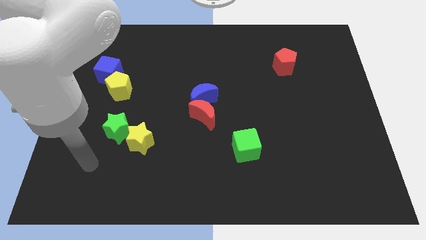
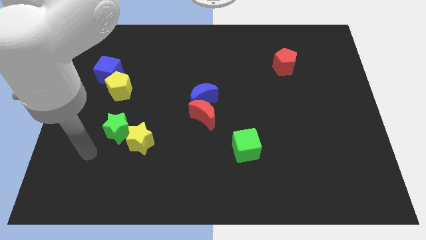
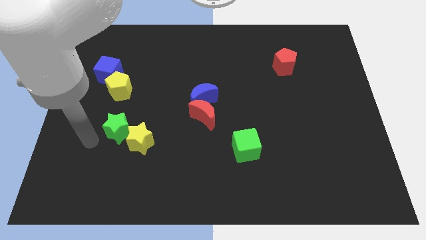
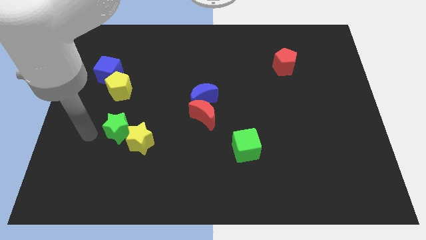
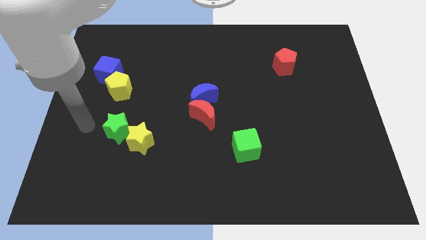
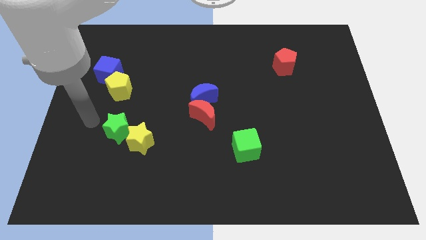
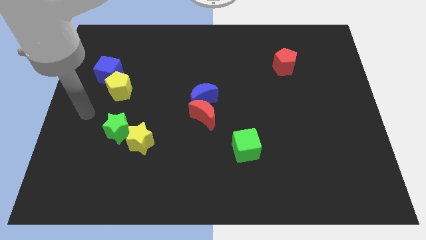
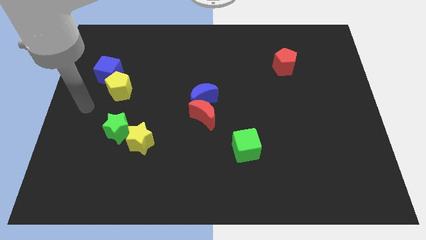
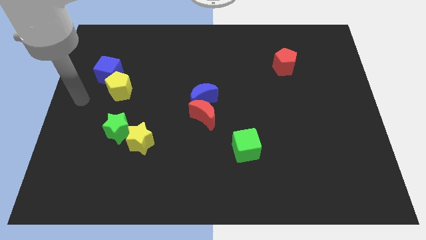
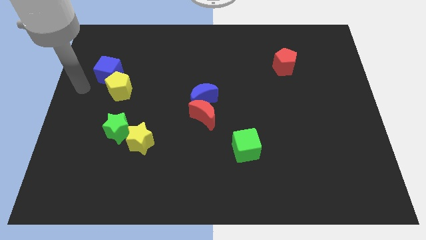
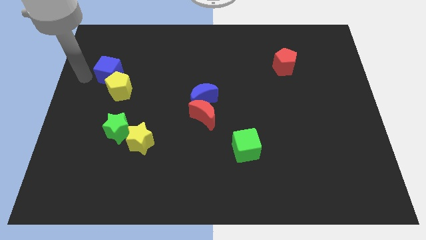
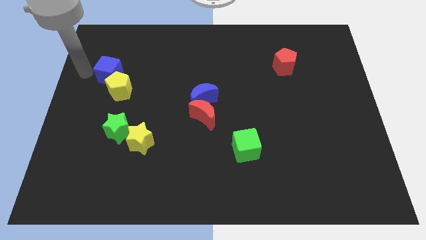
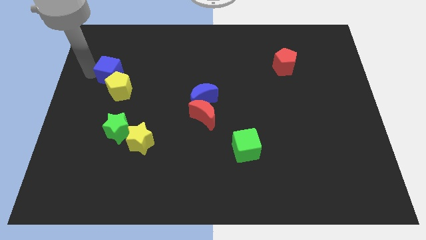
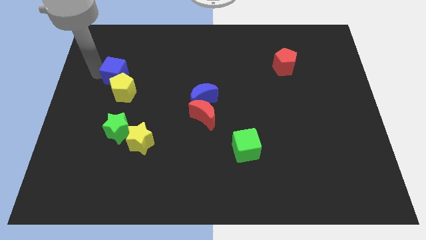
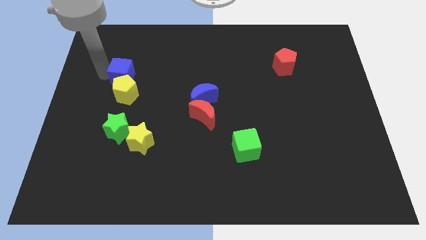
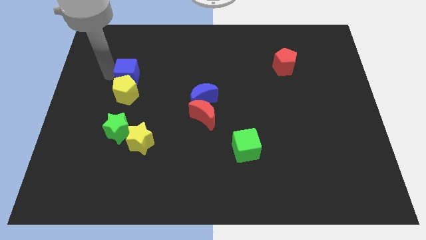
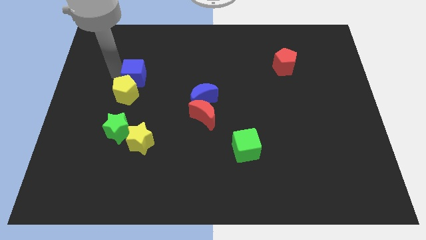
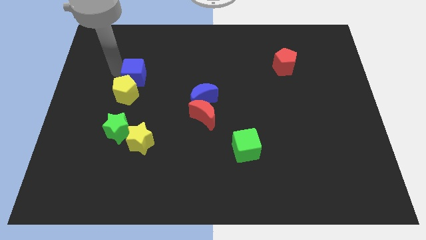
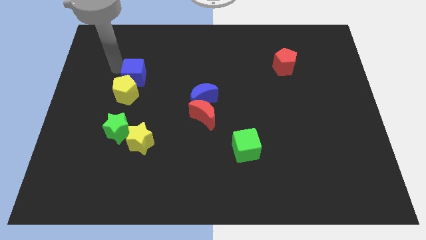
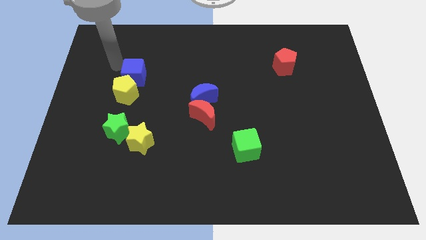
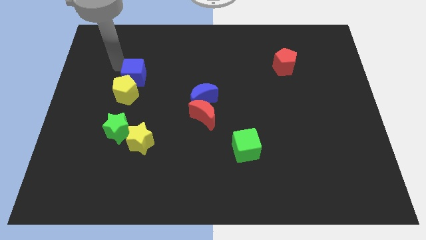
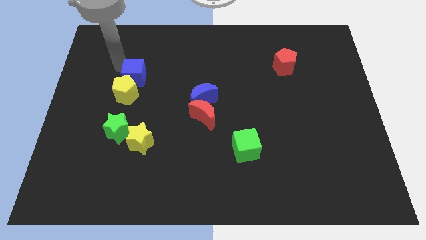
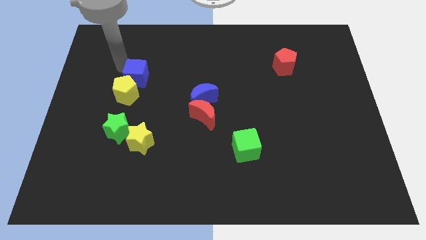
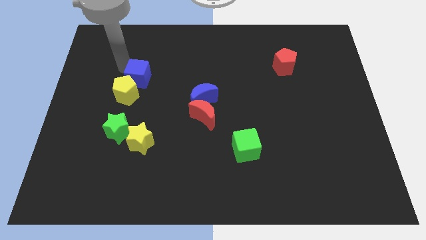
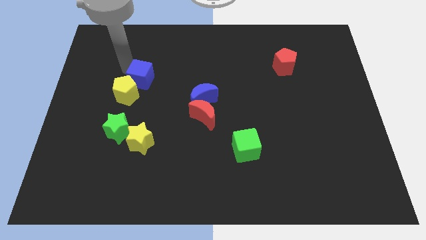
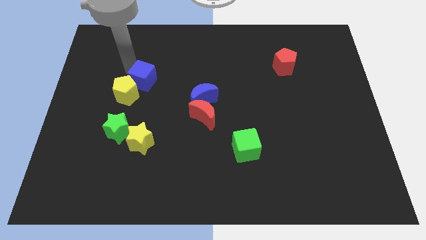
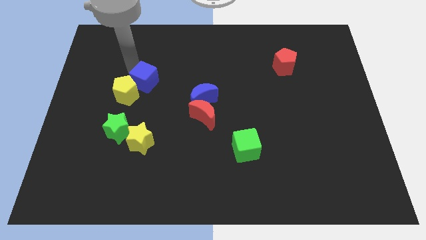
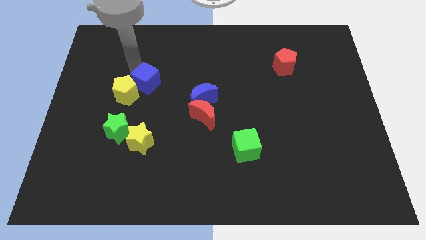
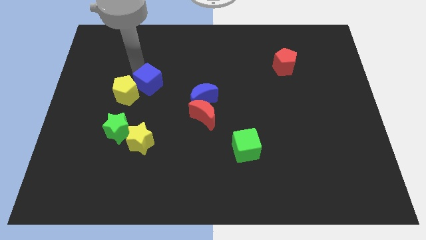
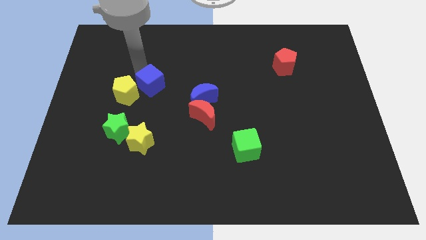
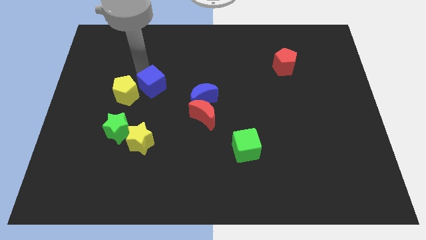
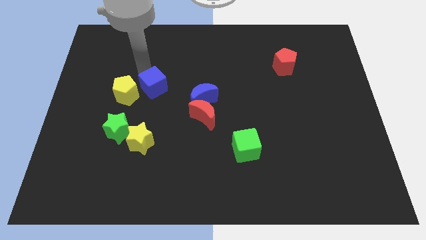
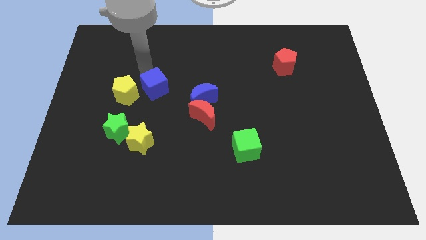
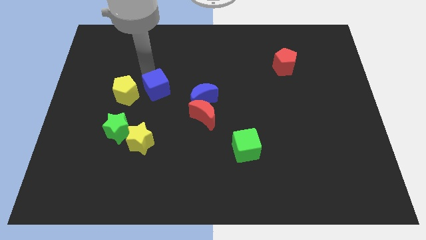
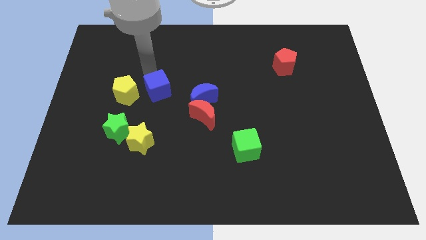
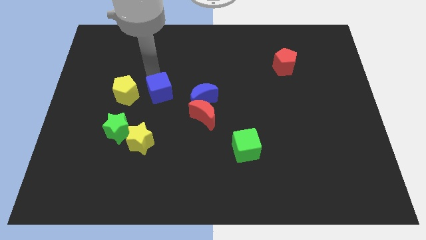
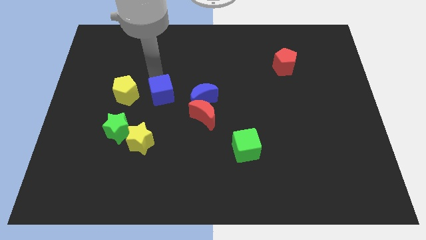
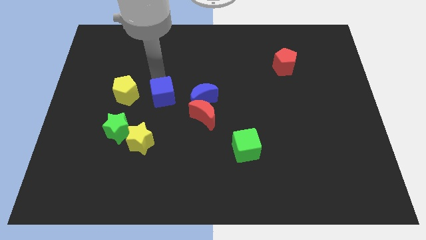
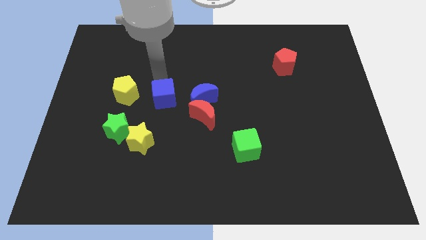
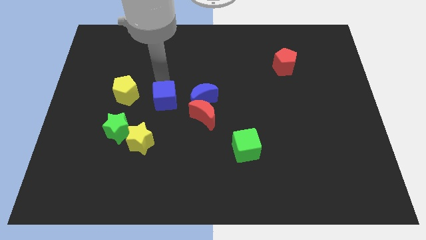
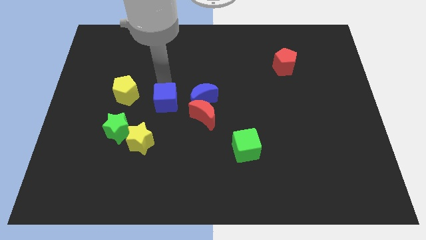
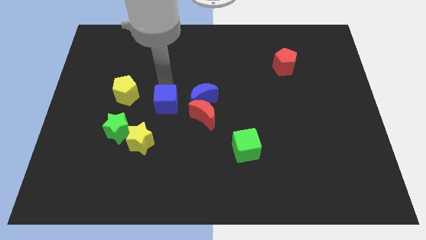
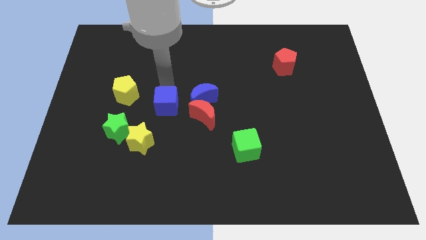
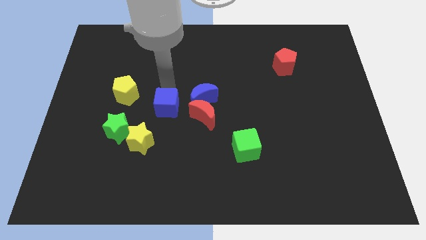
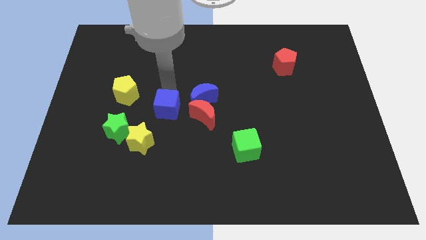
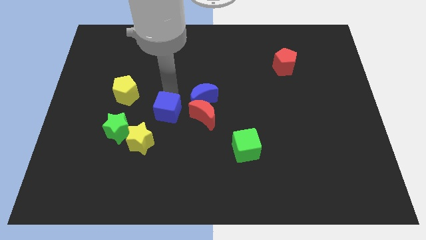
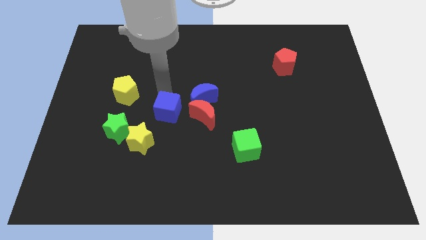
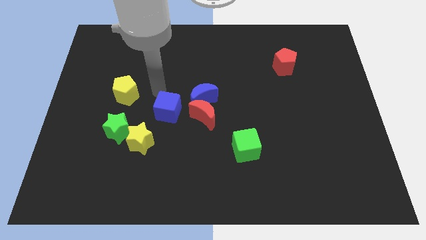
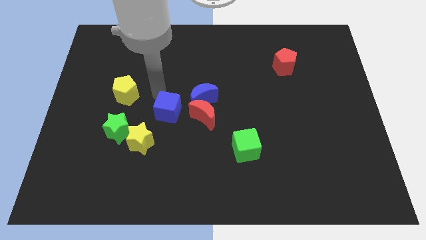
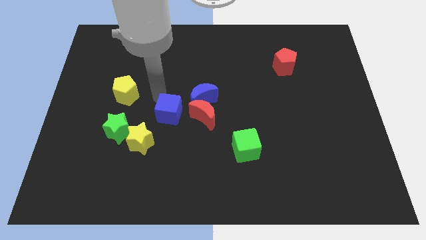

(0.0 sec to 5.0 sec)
move the blue cube down and right

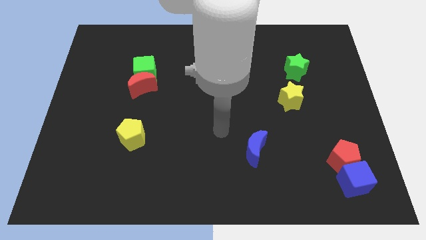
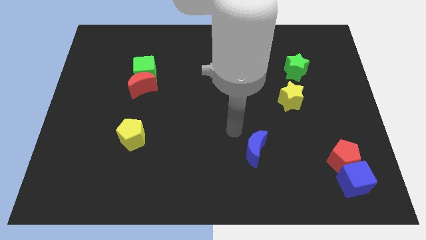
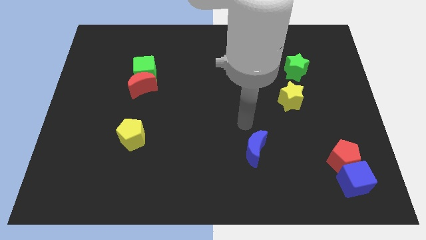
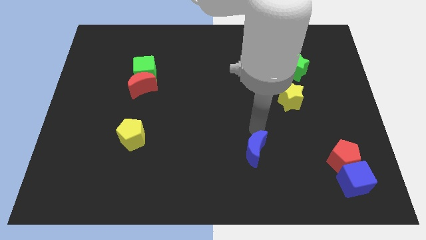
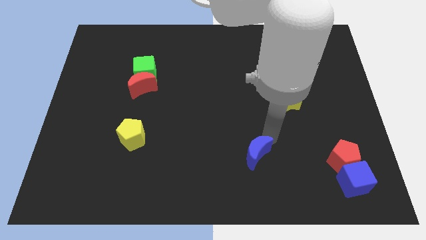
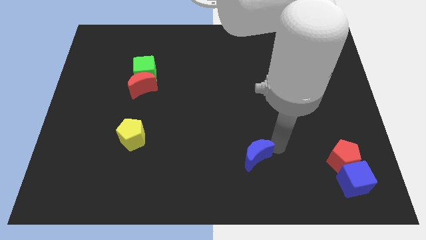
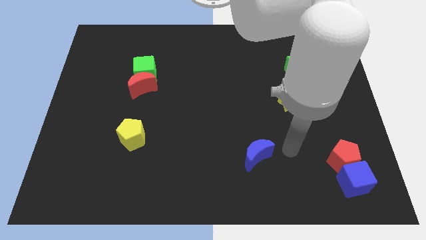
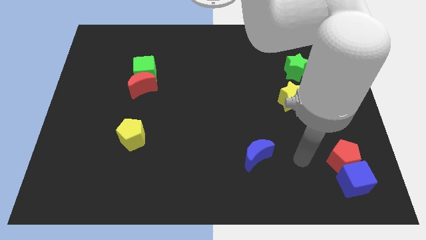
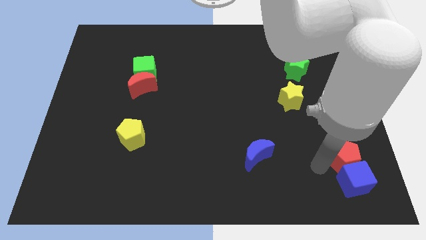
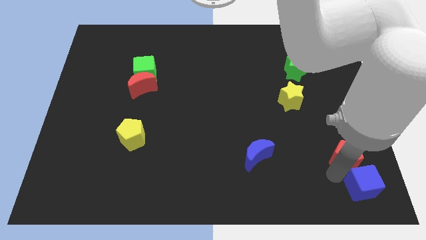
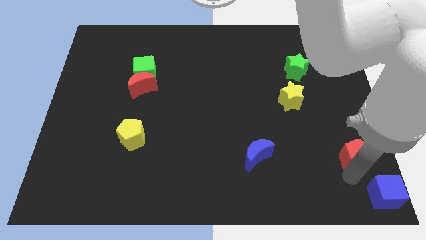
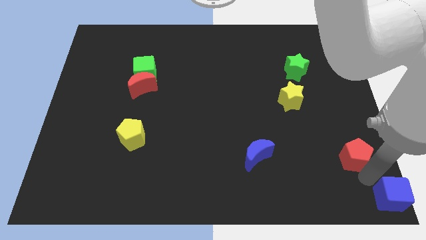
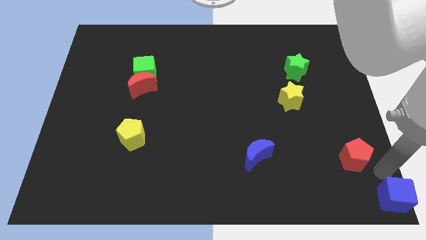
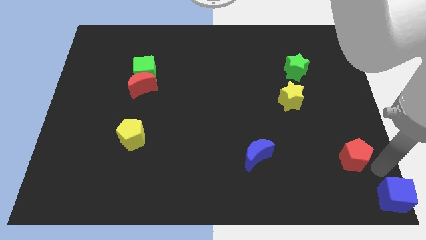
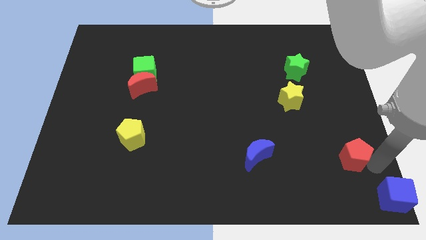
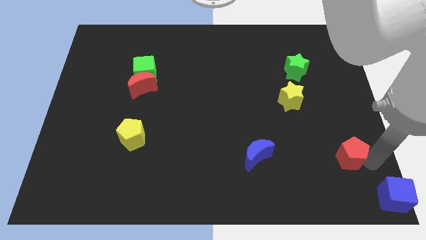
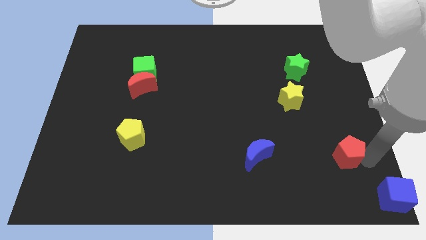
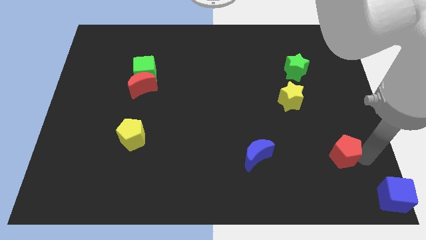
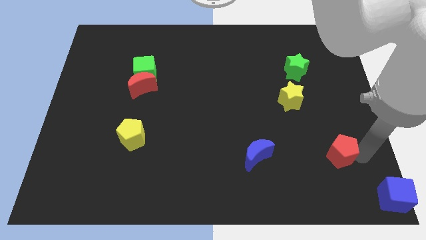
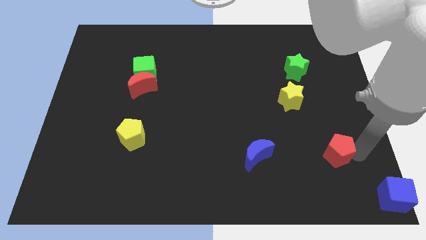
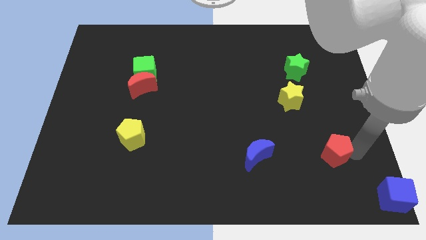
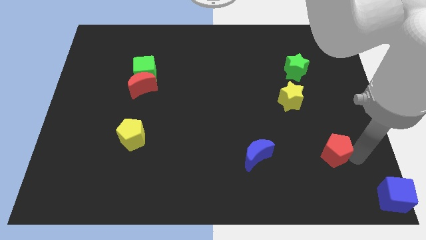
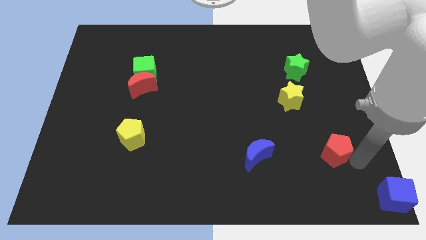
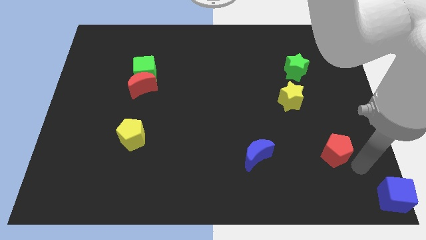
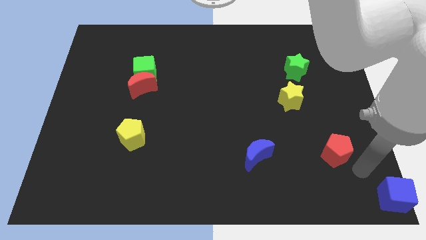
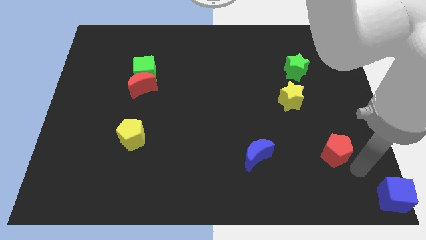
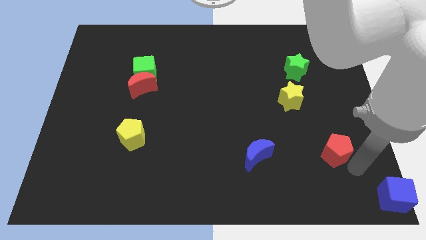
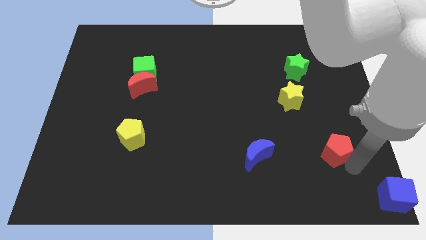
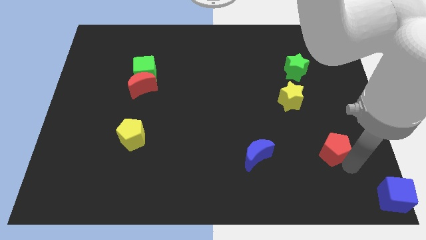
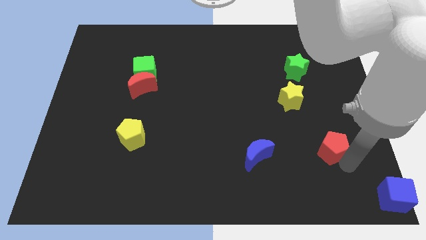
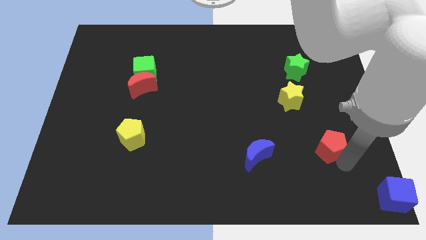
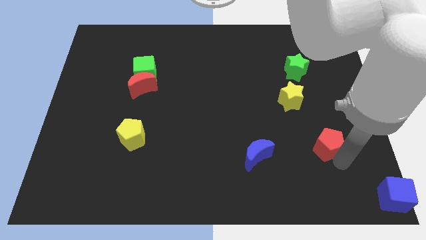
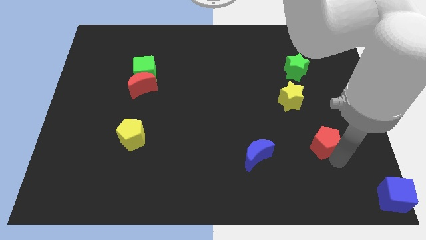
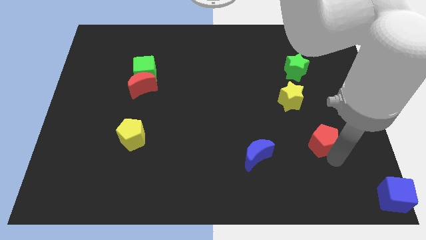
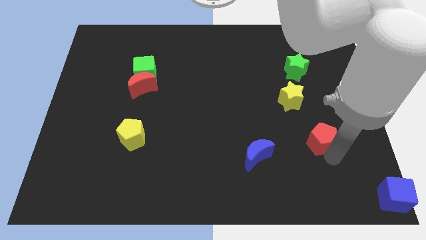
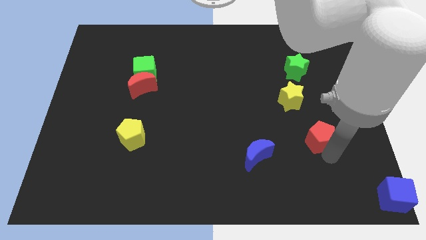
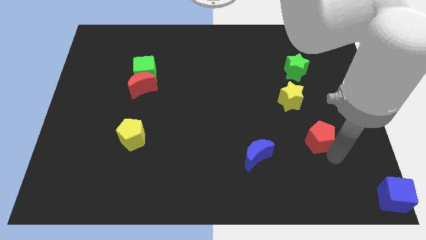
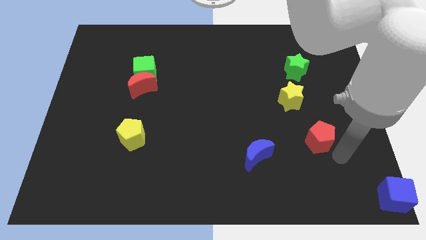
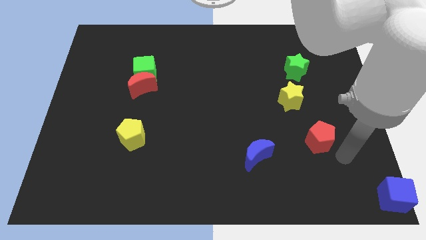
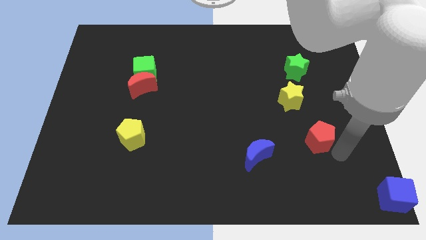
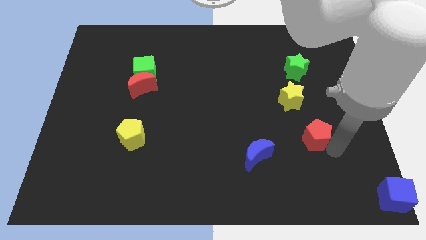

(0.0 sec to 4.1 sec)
push the red pentagon diagonally upwards and left a little bit
